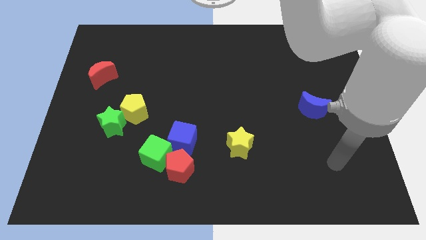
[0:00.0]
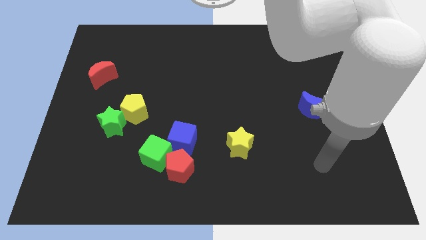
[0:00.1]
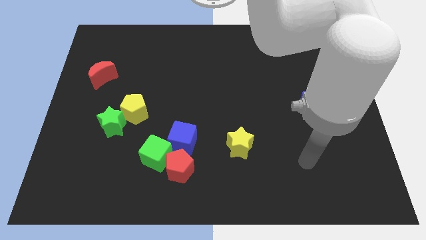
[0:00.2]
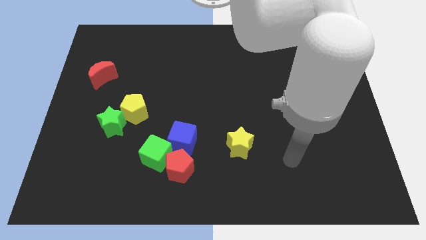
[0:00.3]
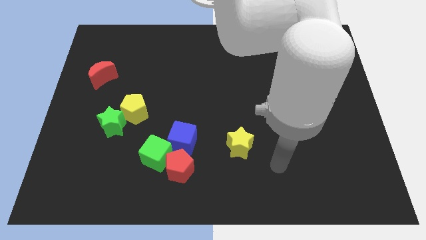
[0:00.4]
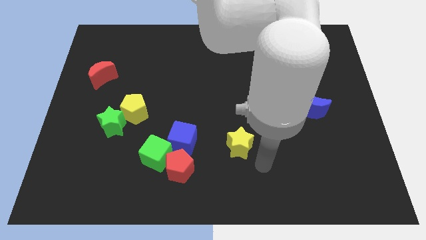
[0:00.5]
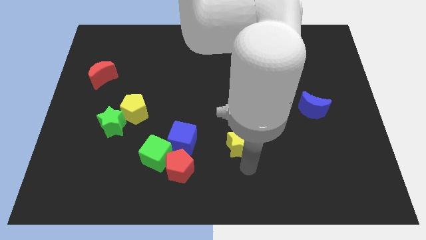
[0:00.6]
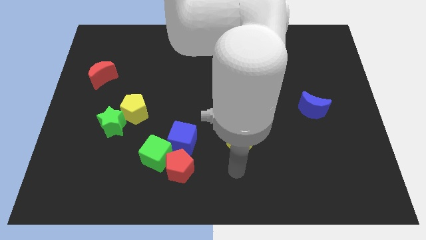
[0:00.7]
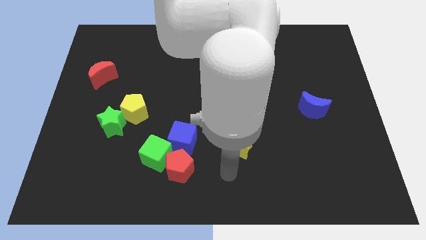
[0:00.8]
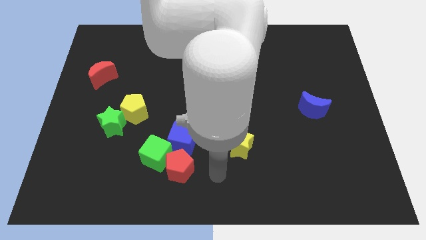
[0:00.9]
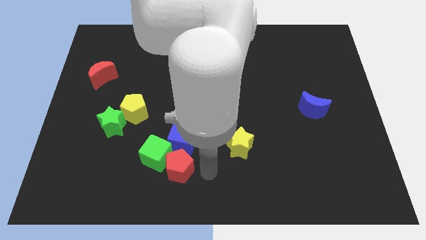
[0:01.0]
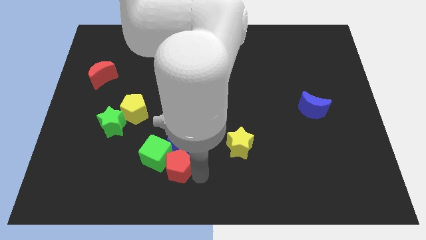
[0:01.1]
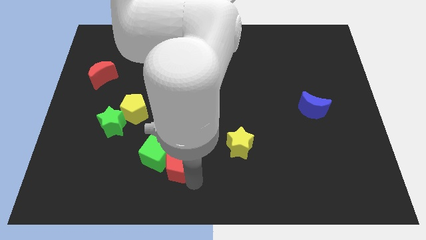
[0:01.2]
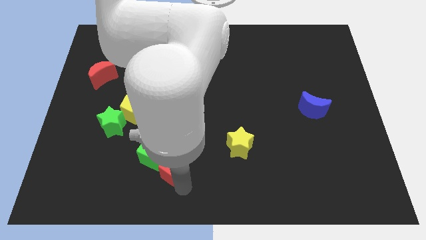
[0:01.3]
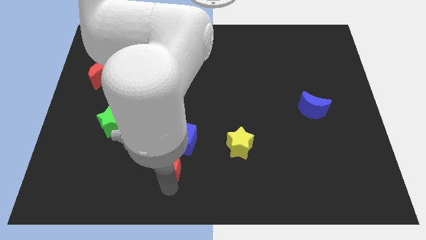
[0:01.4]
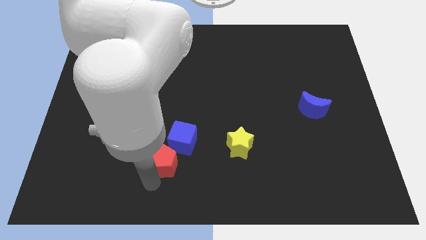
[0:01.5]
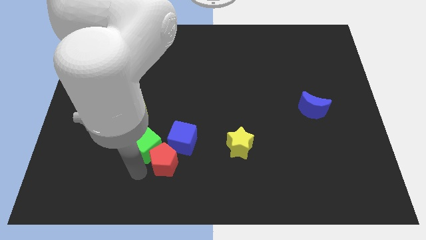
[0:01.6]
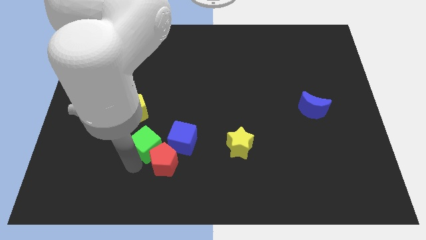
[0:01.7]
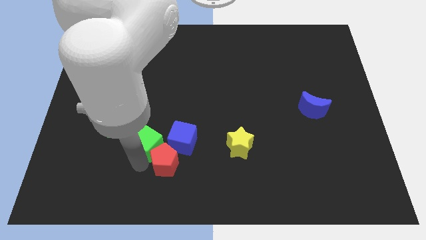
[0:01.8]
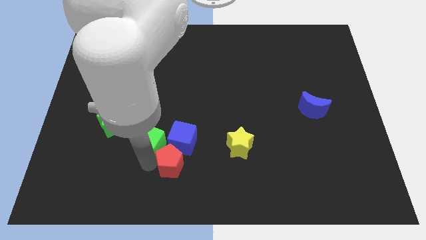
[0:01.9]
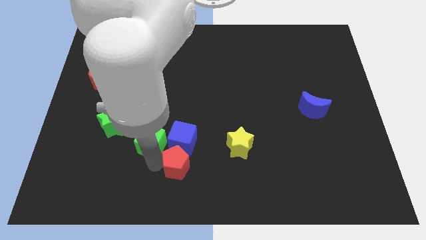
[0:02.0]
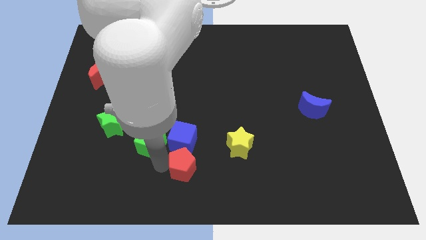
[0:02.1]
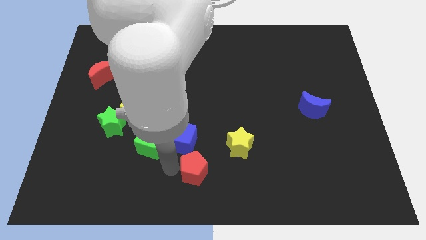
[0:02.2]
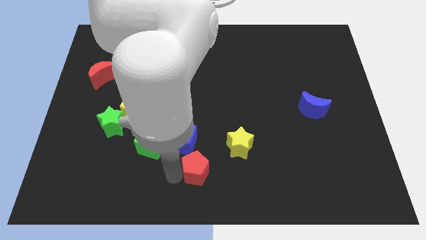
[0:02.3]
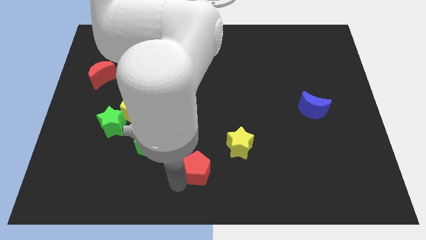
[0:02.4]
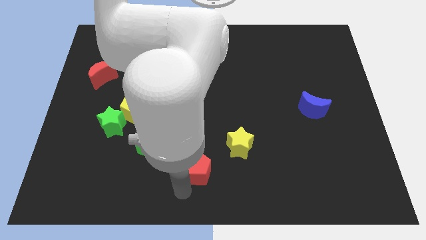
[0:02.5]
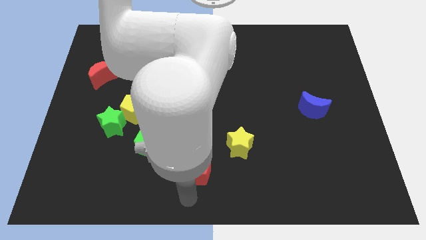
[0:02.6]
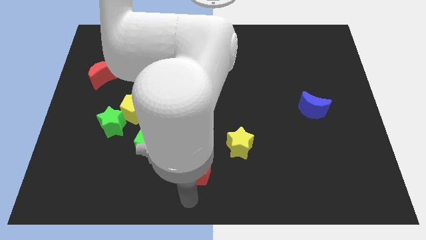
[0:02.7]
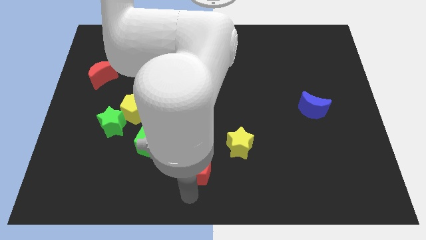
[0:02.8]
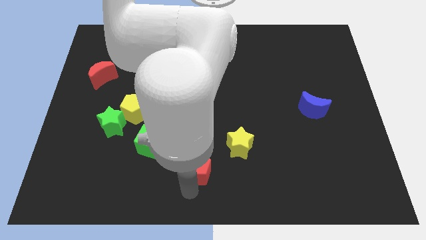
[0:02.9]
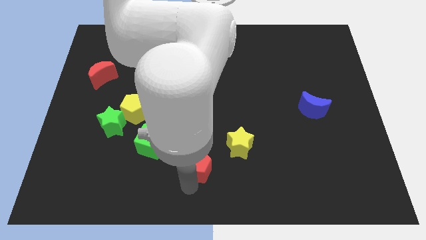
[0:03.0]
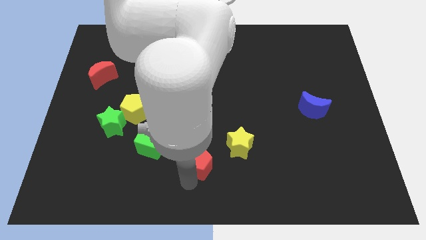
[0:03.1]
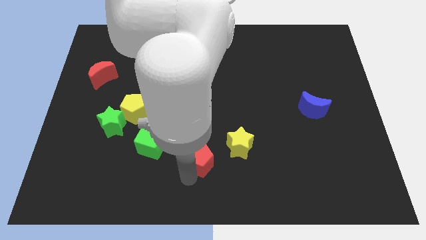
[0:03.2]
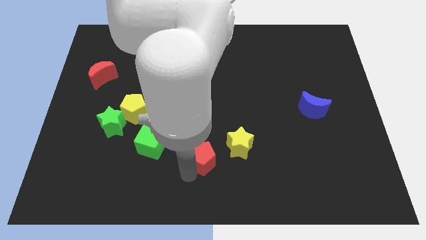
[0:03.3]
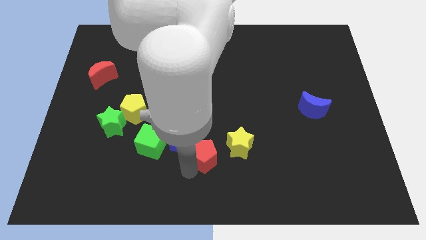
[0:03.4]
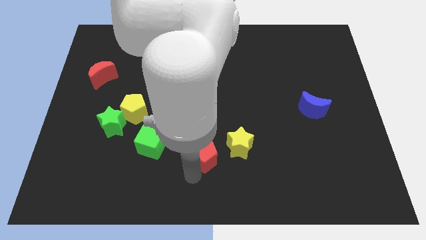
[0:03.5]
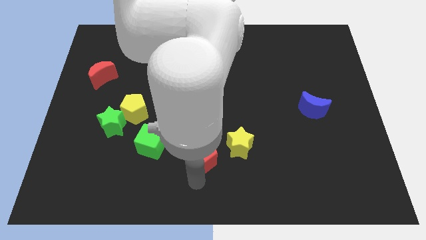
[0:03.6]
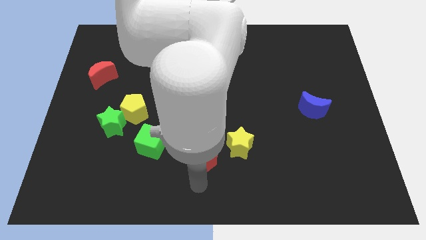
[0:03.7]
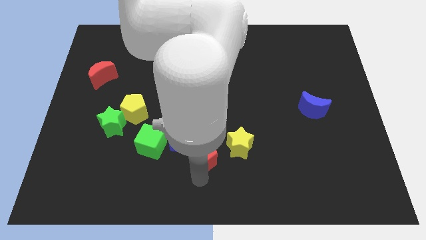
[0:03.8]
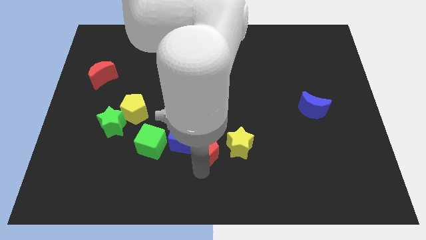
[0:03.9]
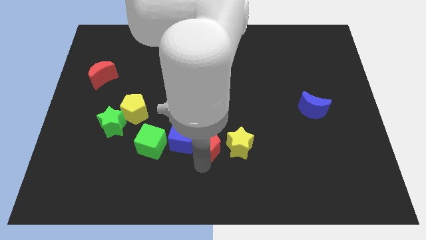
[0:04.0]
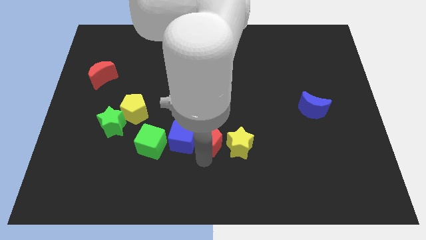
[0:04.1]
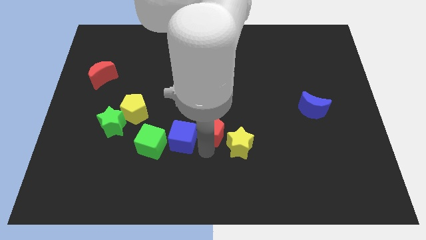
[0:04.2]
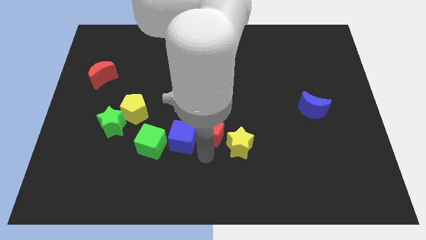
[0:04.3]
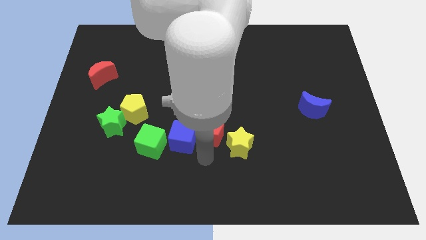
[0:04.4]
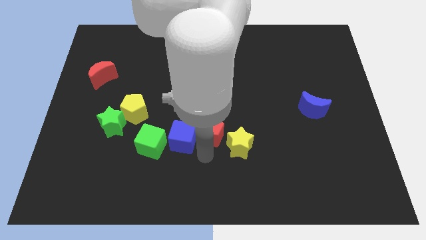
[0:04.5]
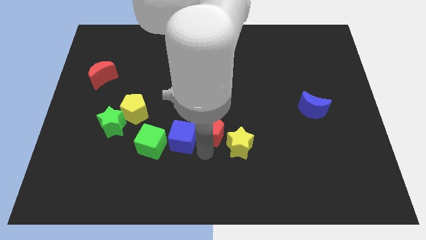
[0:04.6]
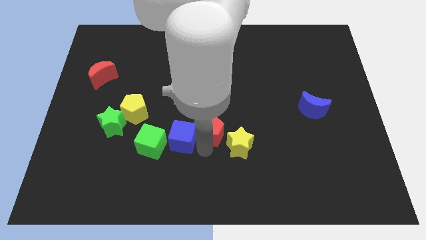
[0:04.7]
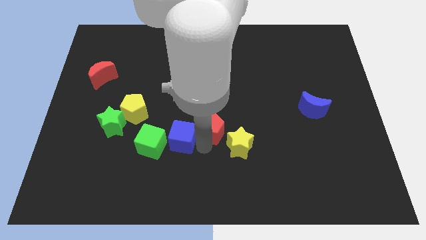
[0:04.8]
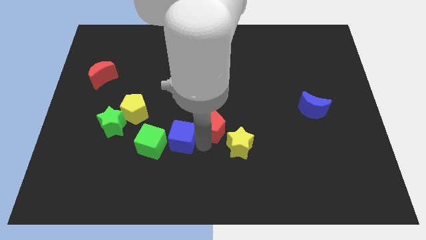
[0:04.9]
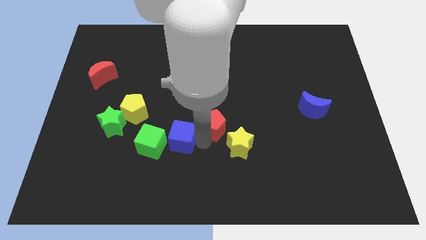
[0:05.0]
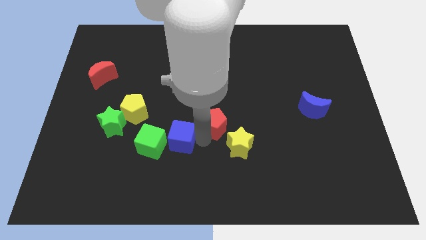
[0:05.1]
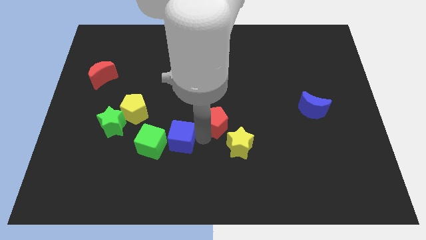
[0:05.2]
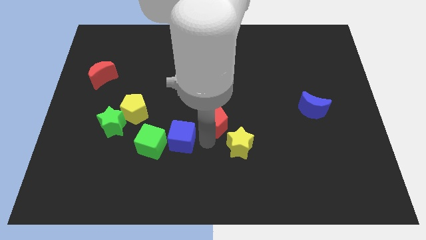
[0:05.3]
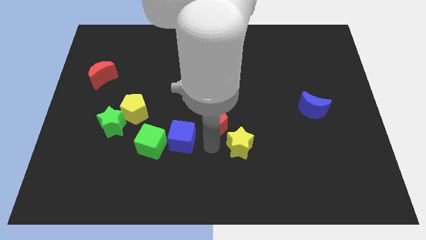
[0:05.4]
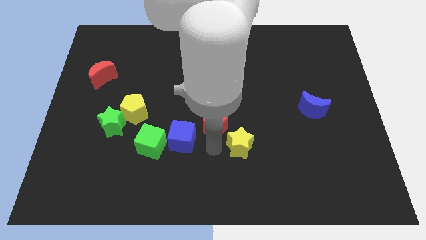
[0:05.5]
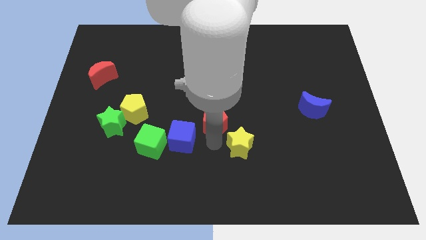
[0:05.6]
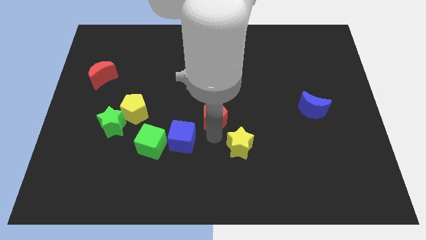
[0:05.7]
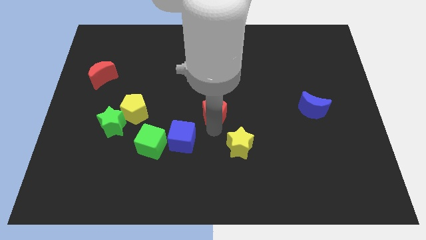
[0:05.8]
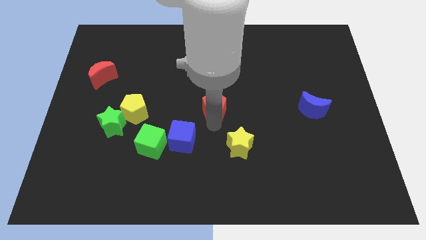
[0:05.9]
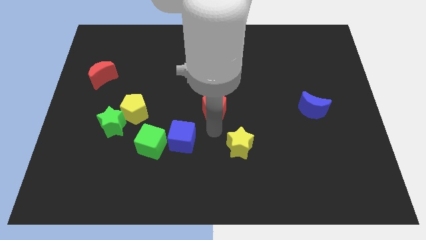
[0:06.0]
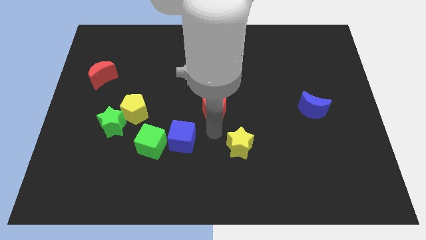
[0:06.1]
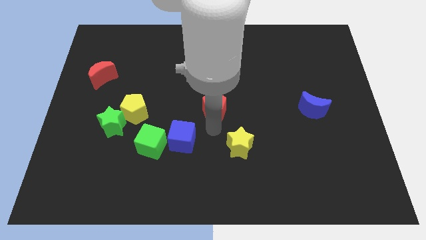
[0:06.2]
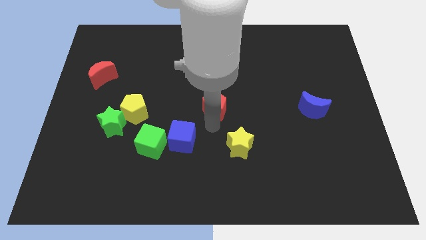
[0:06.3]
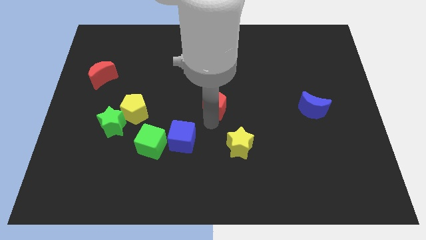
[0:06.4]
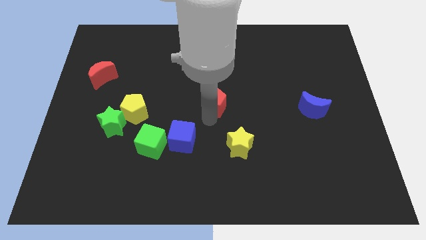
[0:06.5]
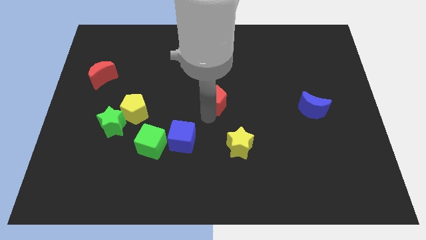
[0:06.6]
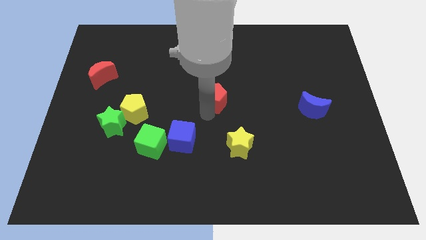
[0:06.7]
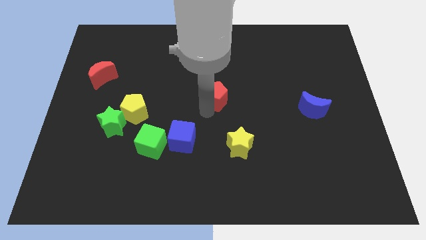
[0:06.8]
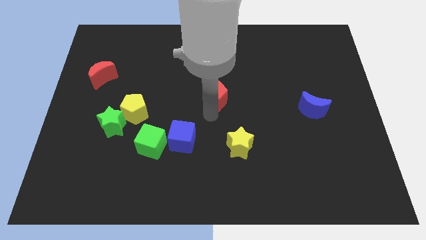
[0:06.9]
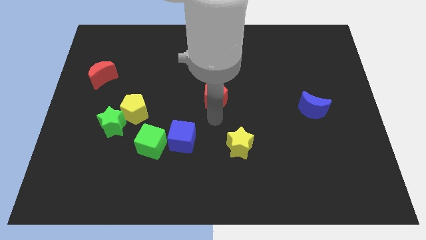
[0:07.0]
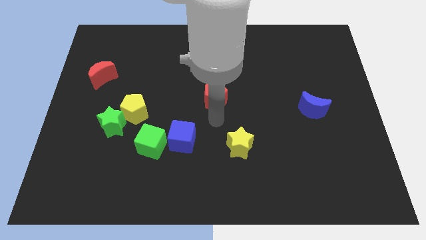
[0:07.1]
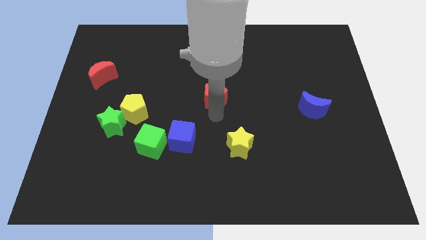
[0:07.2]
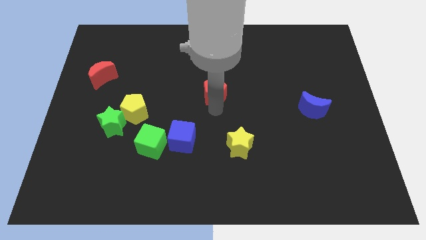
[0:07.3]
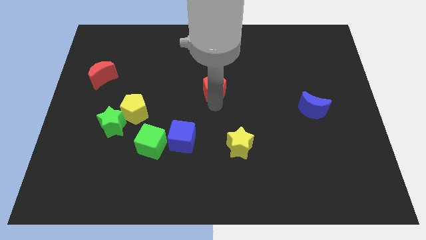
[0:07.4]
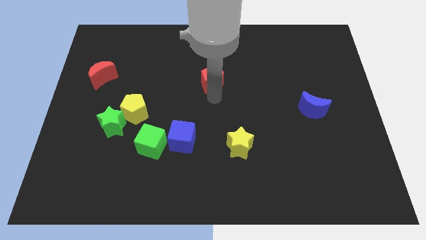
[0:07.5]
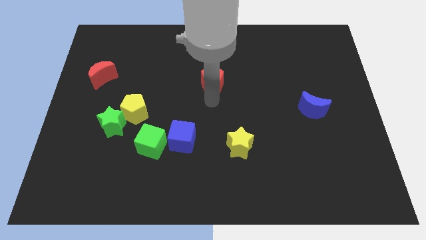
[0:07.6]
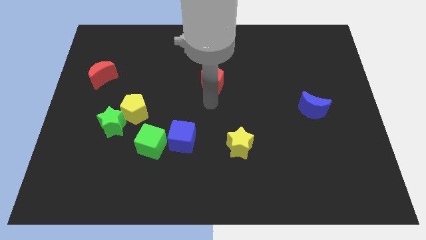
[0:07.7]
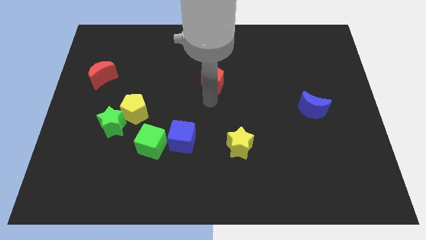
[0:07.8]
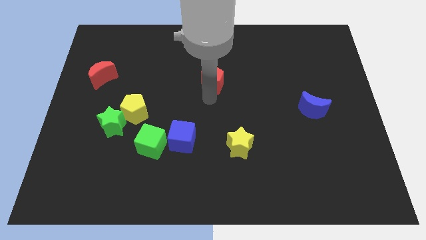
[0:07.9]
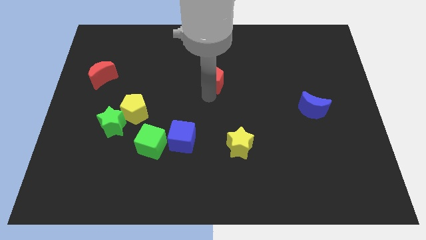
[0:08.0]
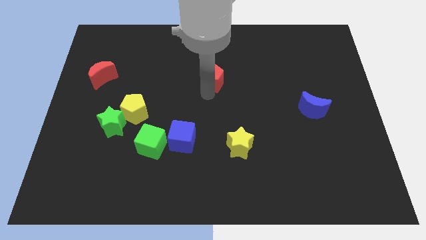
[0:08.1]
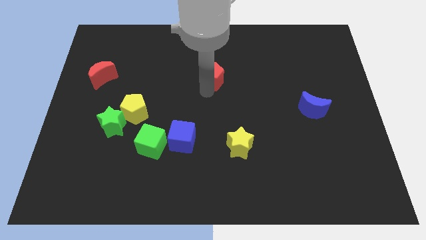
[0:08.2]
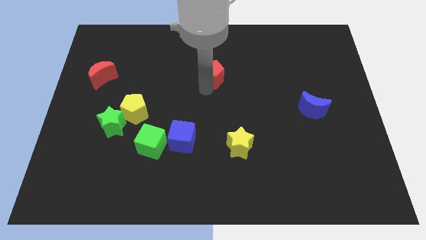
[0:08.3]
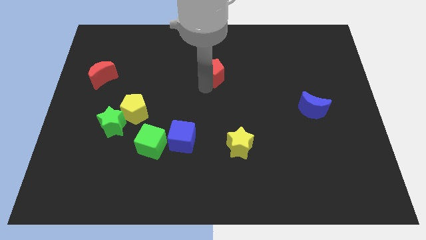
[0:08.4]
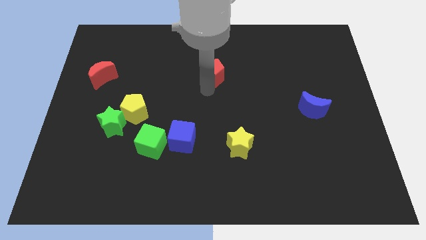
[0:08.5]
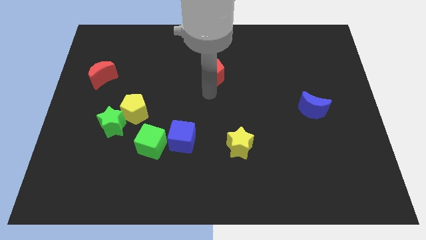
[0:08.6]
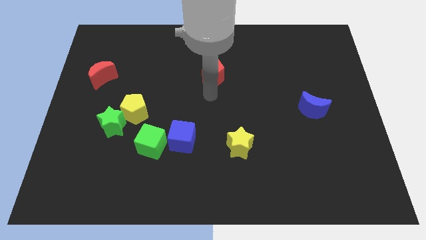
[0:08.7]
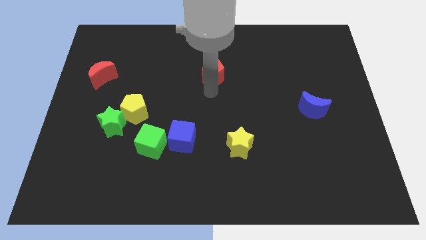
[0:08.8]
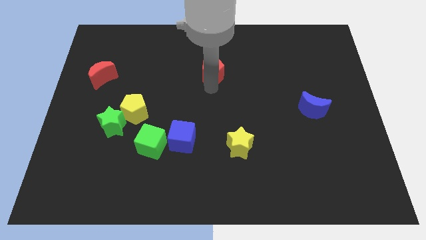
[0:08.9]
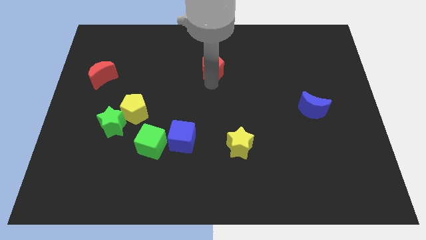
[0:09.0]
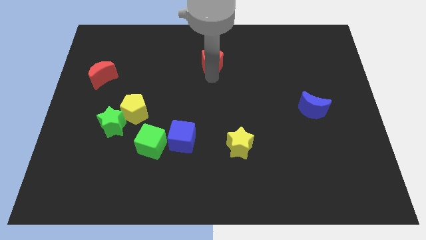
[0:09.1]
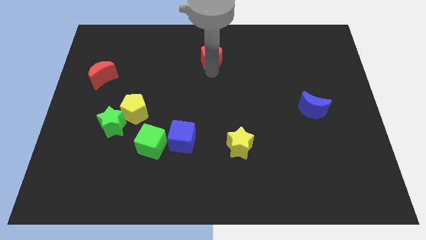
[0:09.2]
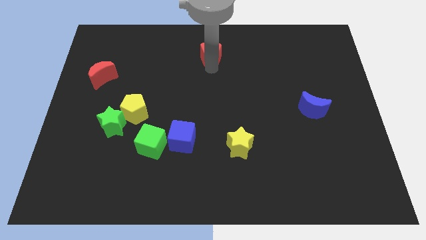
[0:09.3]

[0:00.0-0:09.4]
push the red pentagon to the towards your base
